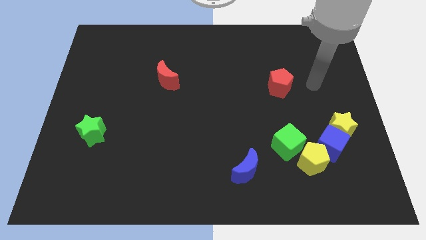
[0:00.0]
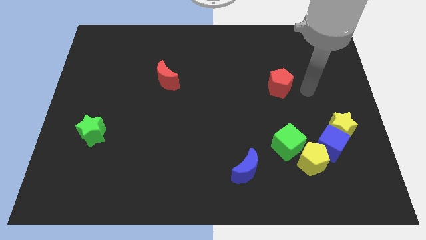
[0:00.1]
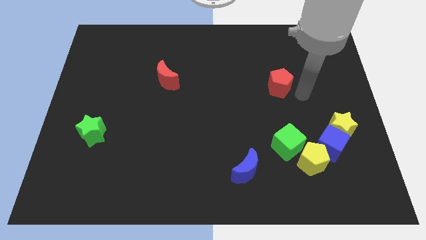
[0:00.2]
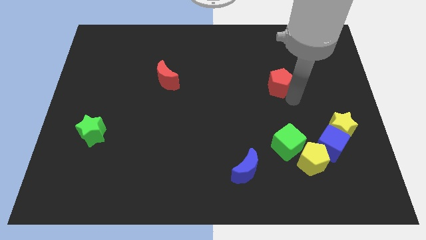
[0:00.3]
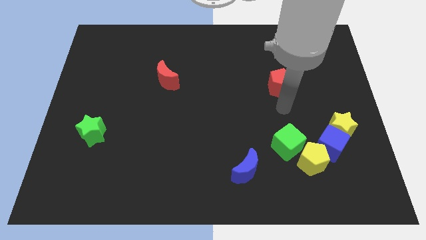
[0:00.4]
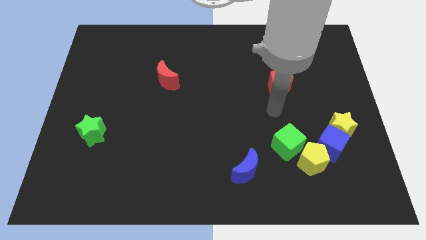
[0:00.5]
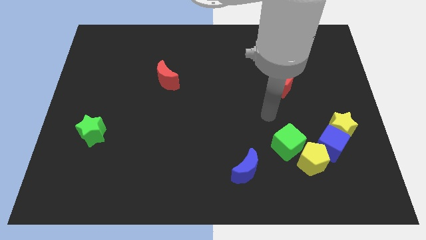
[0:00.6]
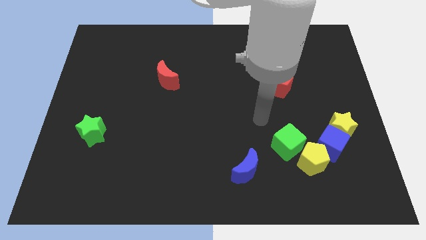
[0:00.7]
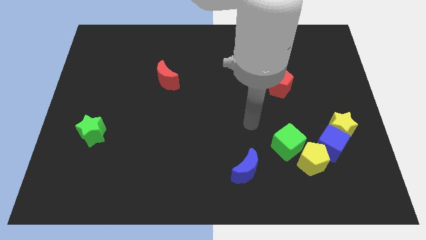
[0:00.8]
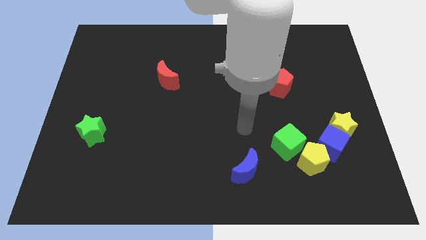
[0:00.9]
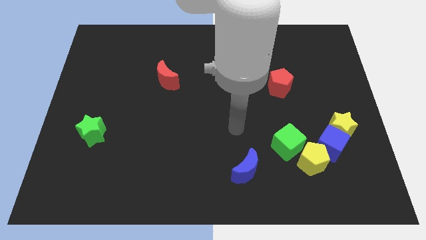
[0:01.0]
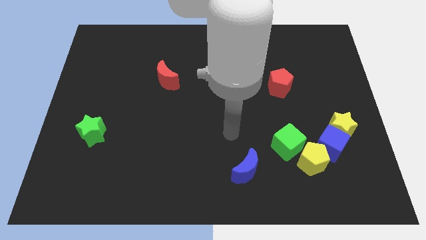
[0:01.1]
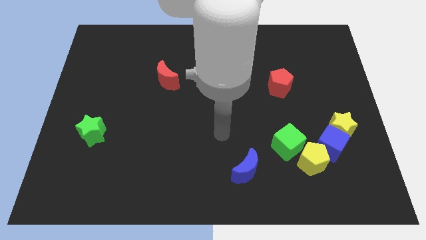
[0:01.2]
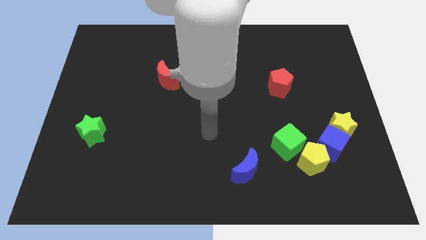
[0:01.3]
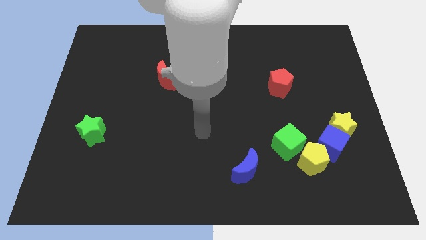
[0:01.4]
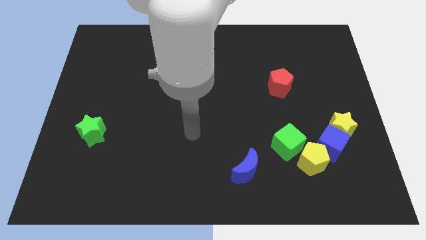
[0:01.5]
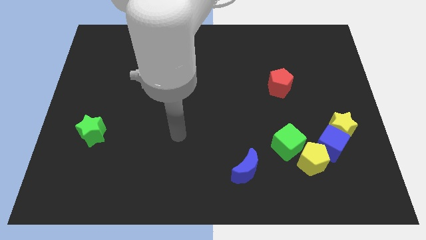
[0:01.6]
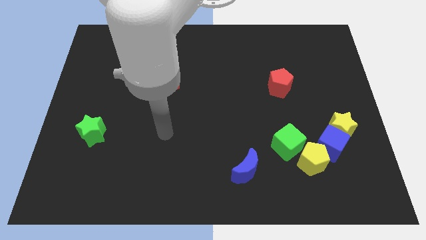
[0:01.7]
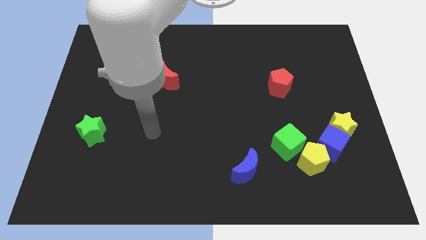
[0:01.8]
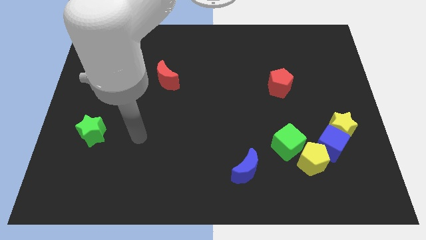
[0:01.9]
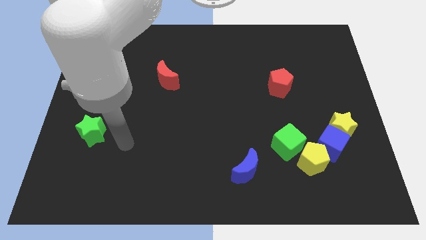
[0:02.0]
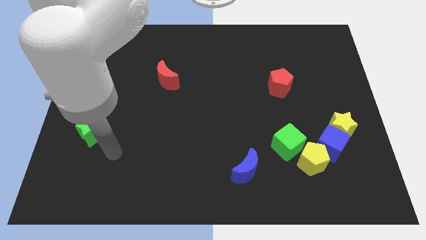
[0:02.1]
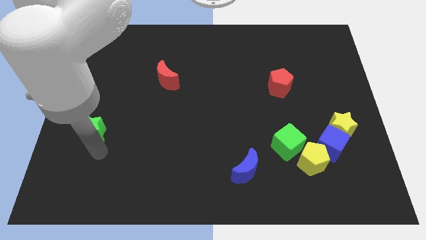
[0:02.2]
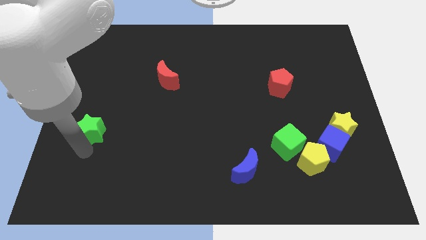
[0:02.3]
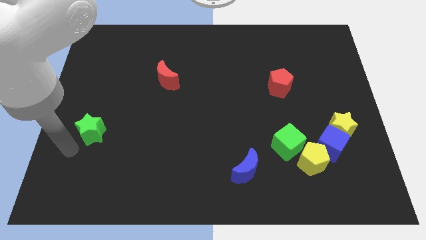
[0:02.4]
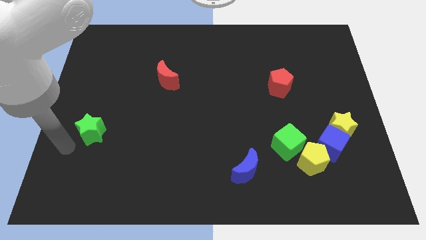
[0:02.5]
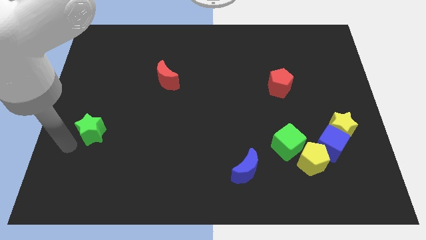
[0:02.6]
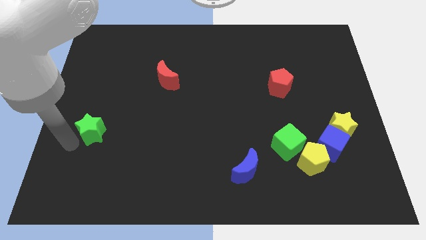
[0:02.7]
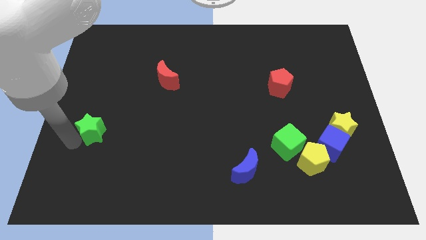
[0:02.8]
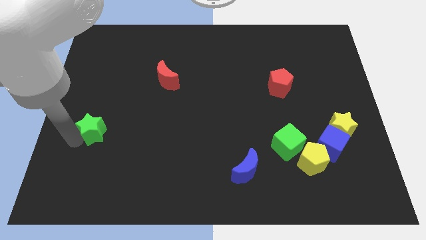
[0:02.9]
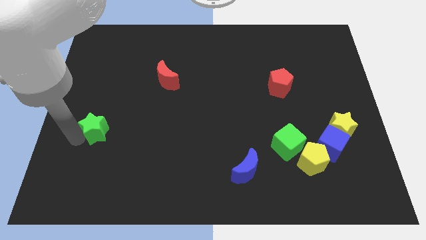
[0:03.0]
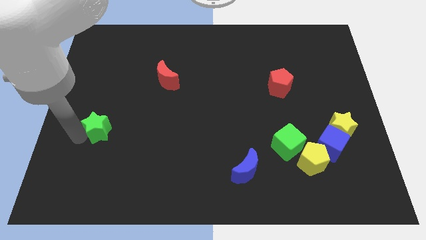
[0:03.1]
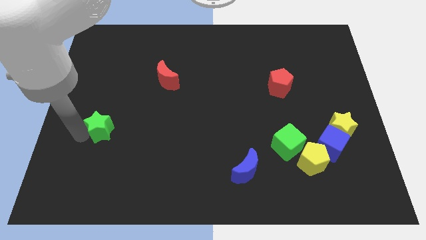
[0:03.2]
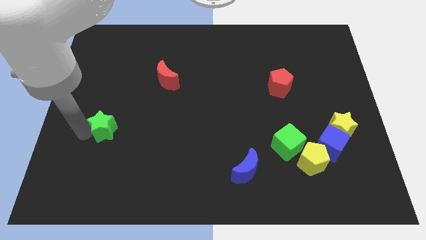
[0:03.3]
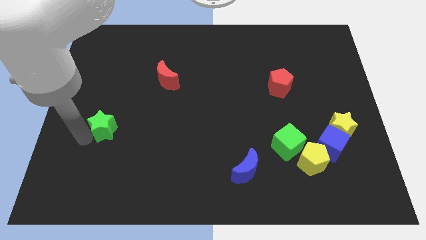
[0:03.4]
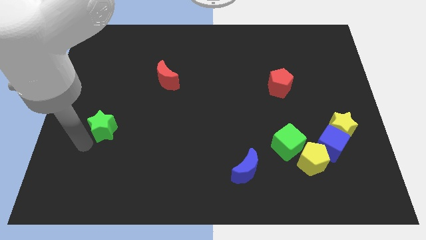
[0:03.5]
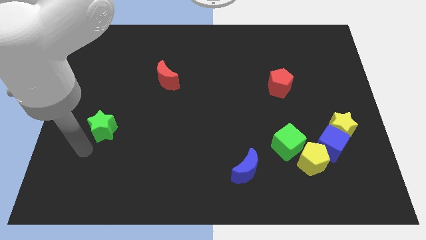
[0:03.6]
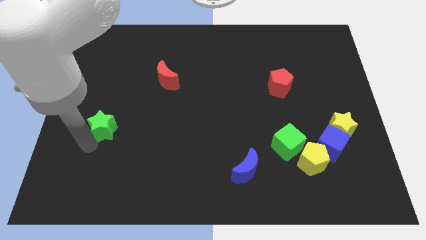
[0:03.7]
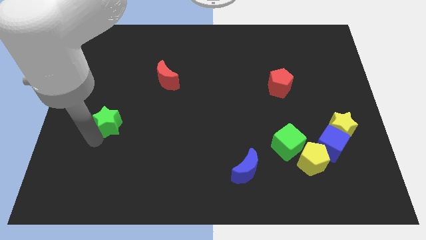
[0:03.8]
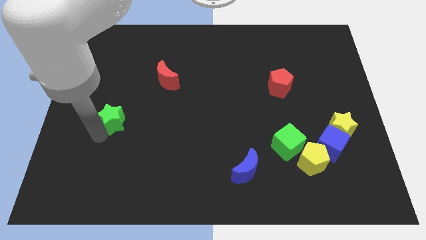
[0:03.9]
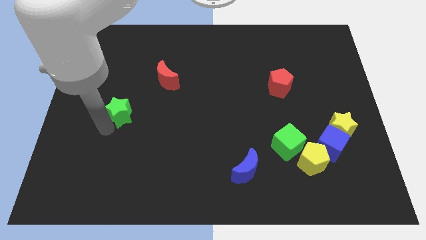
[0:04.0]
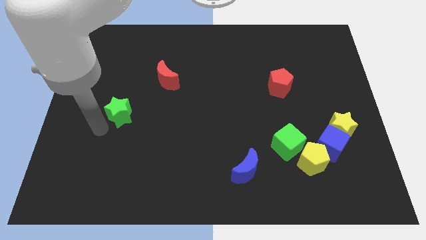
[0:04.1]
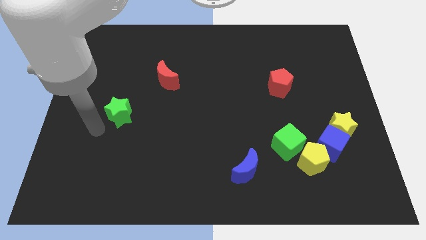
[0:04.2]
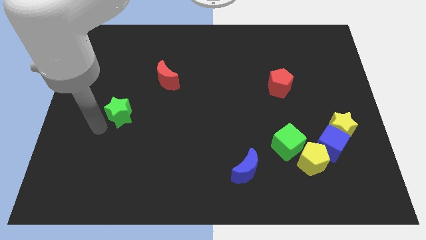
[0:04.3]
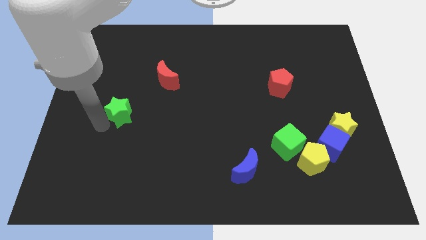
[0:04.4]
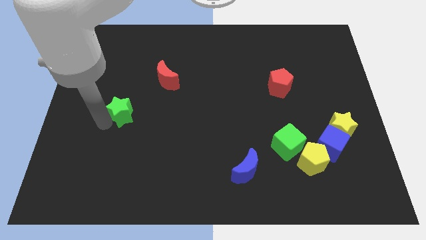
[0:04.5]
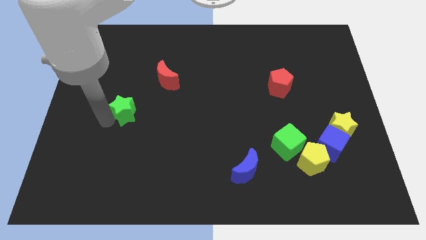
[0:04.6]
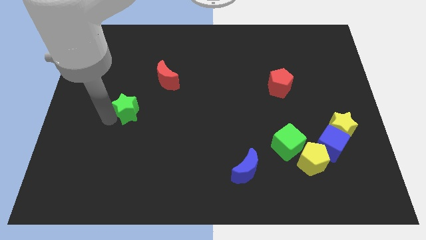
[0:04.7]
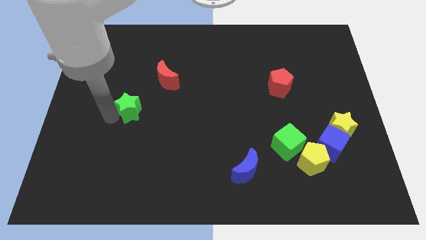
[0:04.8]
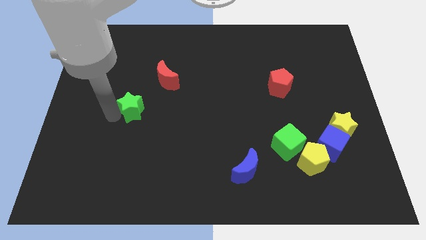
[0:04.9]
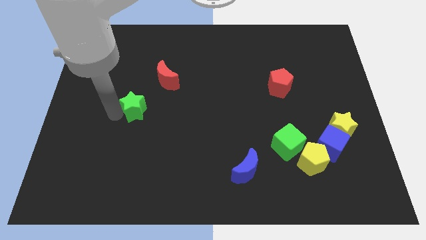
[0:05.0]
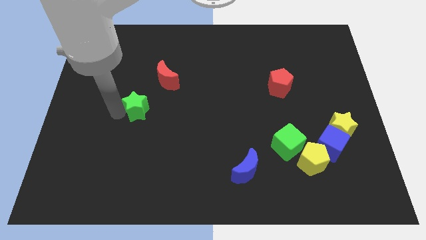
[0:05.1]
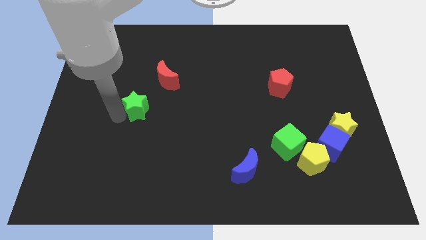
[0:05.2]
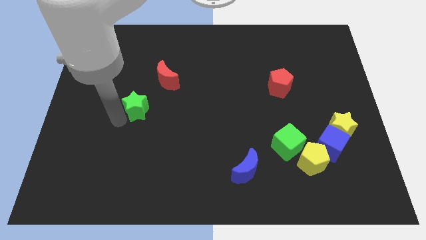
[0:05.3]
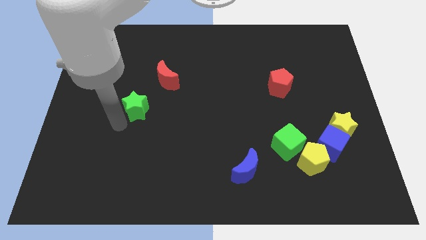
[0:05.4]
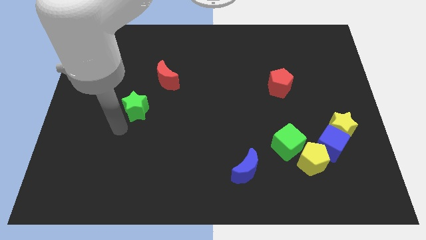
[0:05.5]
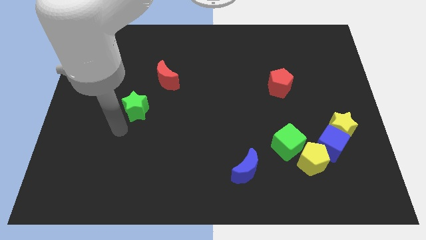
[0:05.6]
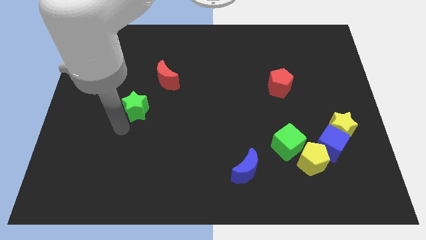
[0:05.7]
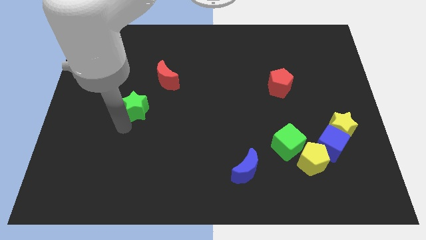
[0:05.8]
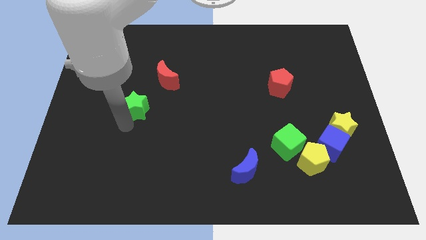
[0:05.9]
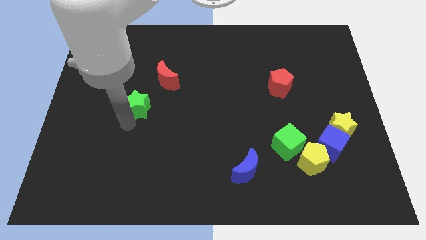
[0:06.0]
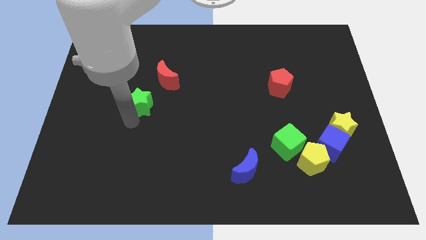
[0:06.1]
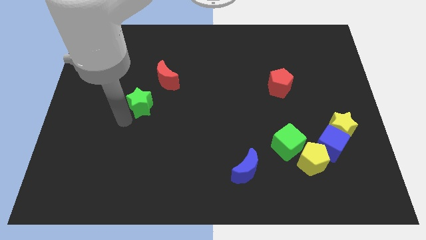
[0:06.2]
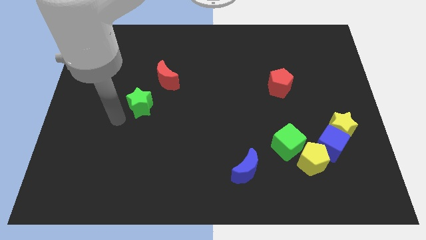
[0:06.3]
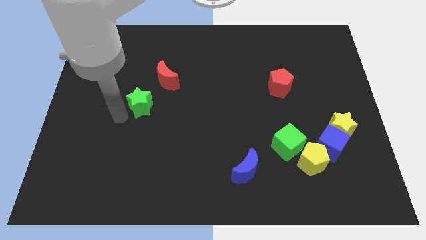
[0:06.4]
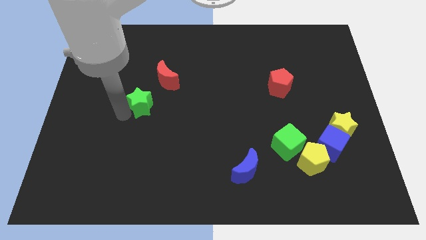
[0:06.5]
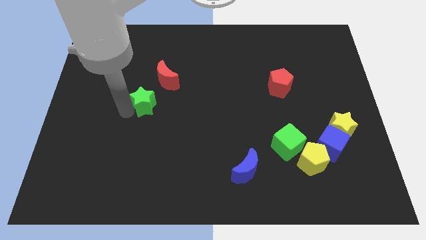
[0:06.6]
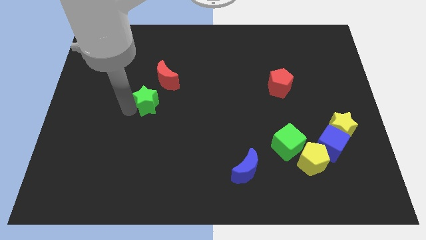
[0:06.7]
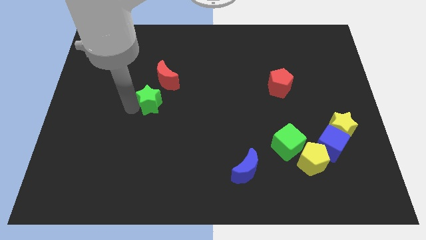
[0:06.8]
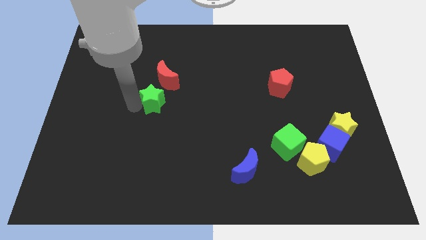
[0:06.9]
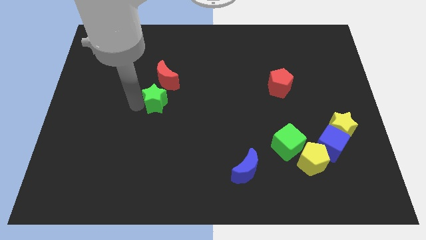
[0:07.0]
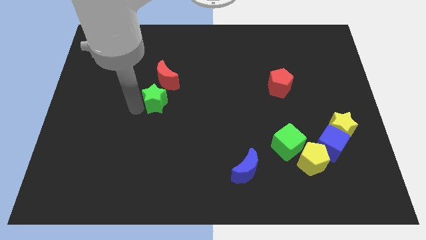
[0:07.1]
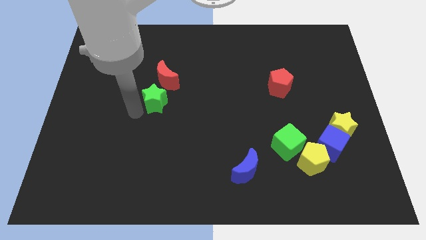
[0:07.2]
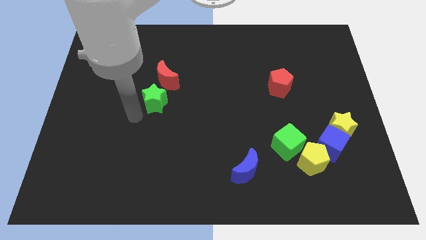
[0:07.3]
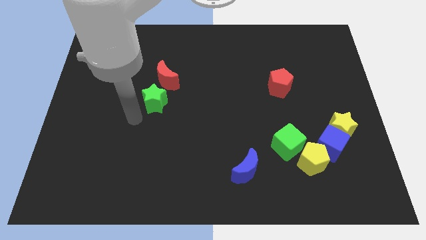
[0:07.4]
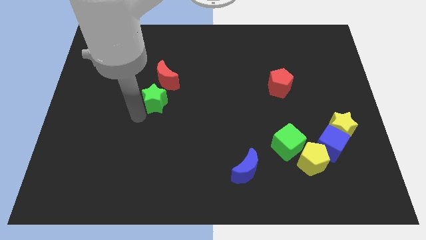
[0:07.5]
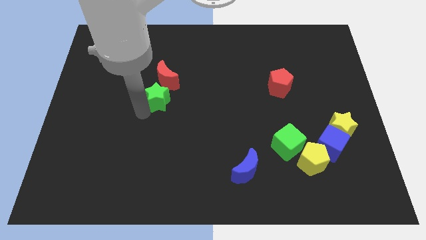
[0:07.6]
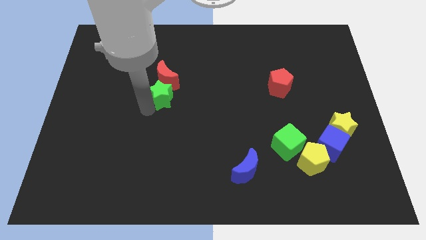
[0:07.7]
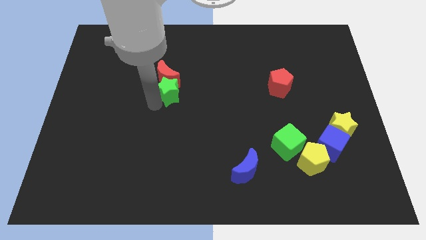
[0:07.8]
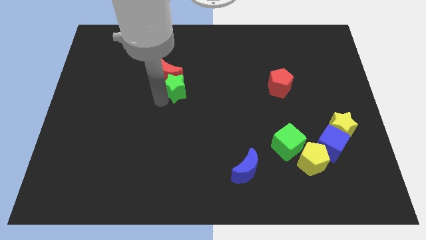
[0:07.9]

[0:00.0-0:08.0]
move the green star upwards and right

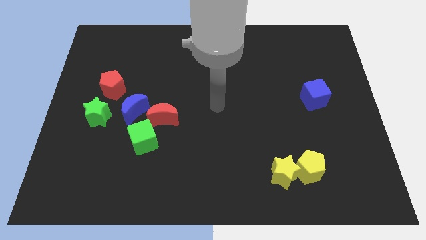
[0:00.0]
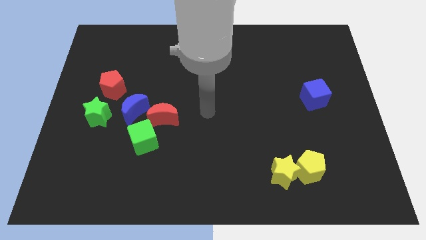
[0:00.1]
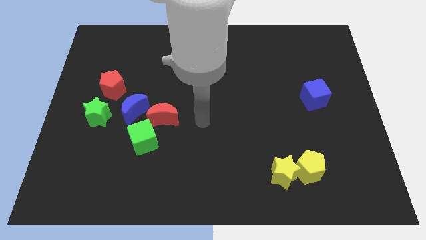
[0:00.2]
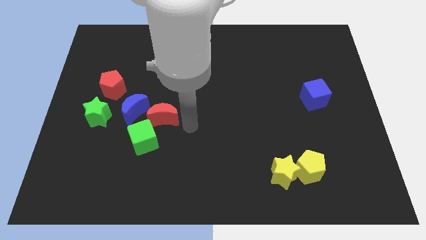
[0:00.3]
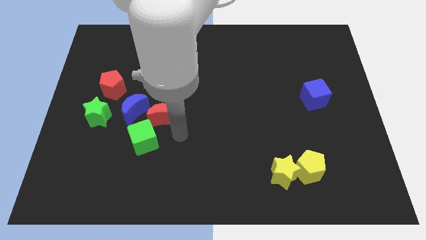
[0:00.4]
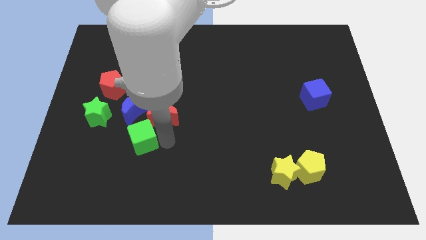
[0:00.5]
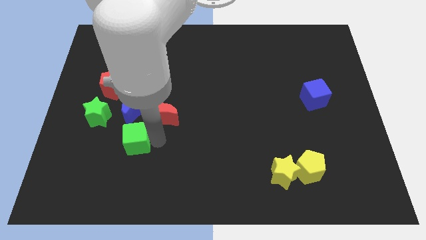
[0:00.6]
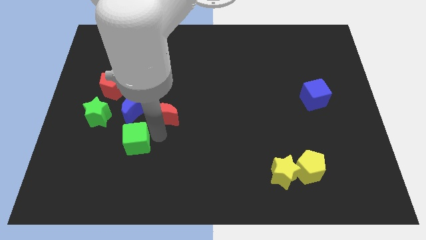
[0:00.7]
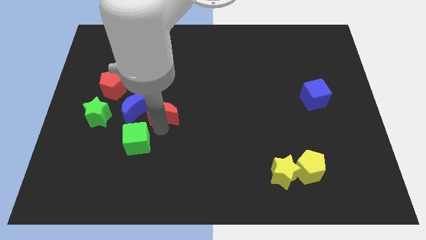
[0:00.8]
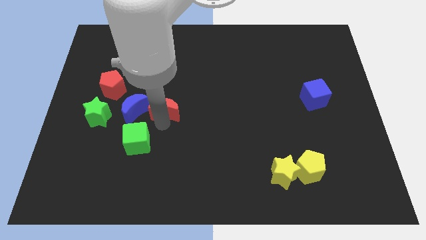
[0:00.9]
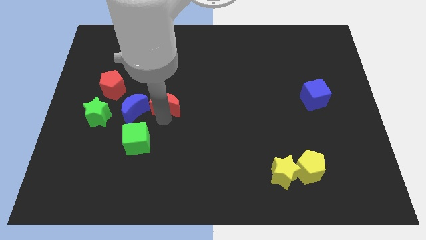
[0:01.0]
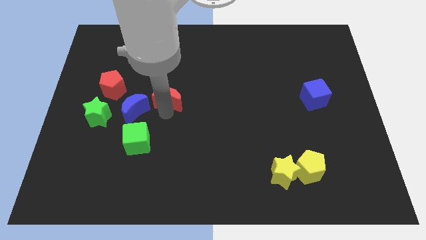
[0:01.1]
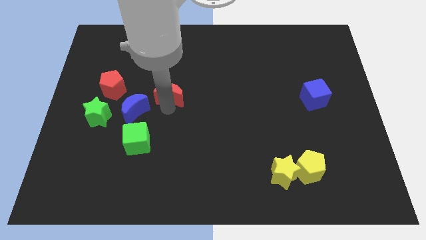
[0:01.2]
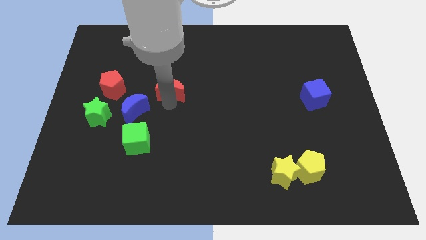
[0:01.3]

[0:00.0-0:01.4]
slightly move the red moon up
